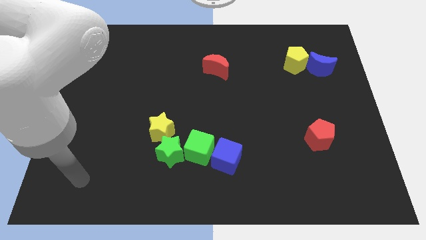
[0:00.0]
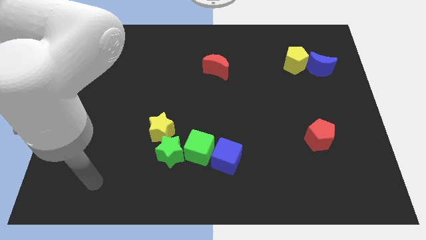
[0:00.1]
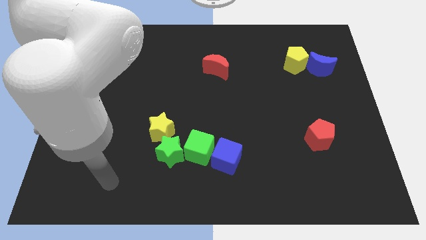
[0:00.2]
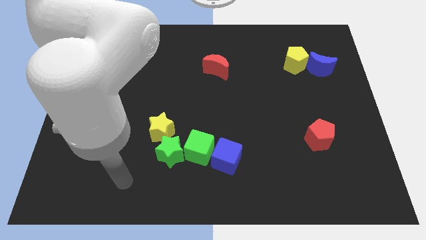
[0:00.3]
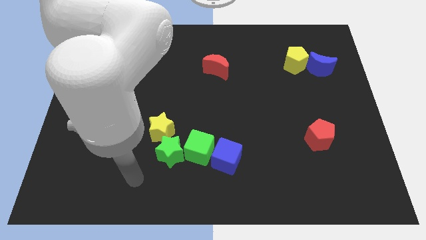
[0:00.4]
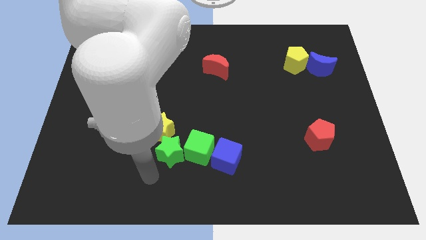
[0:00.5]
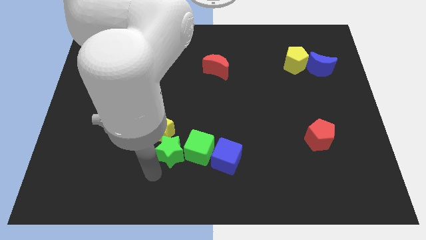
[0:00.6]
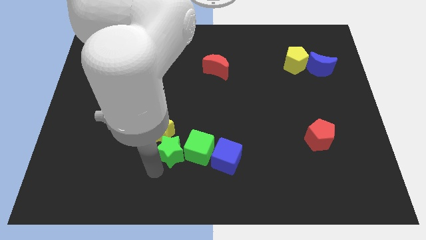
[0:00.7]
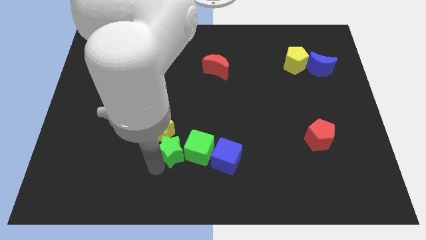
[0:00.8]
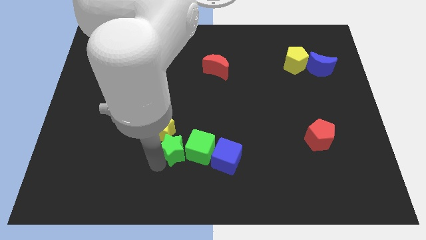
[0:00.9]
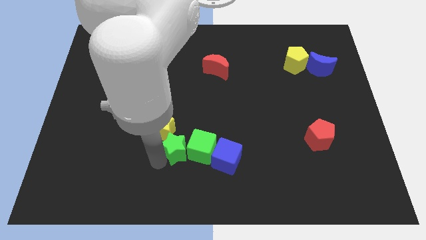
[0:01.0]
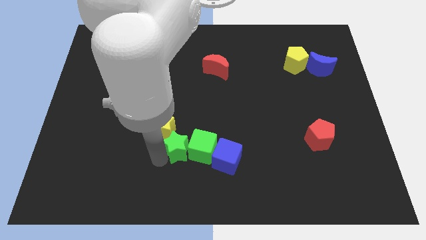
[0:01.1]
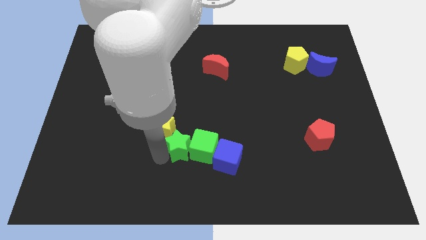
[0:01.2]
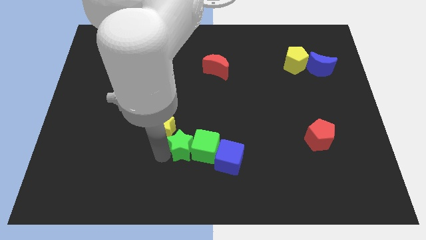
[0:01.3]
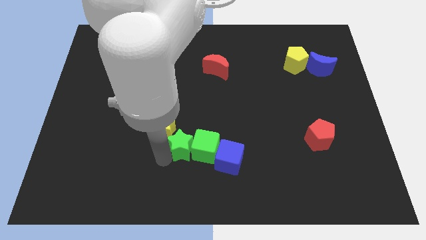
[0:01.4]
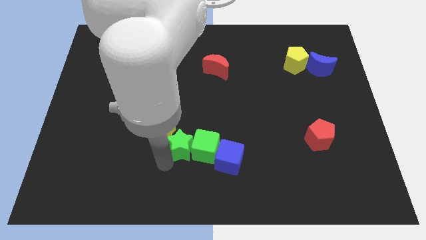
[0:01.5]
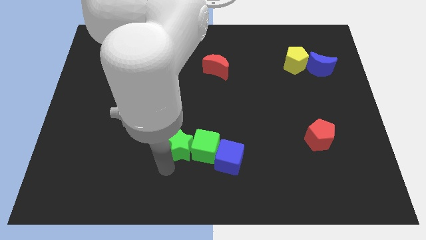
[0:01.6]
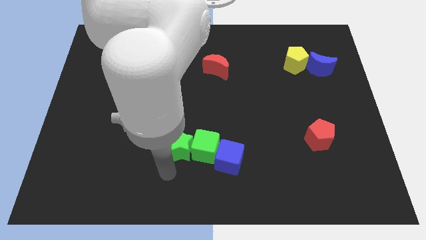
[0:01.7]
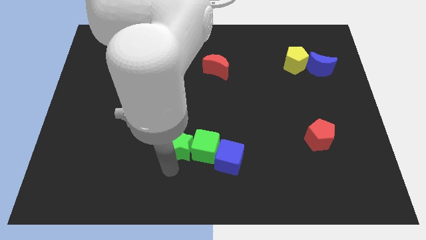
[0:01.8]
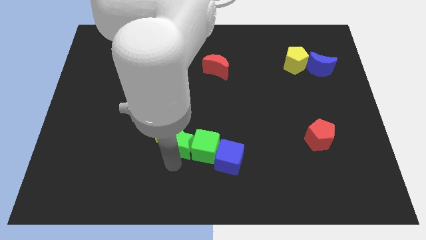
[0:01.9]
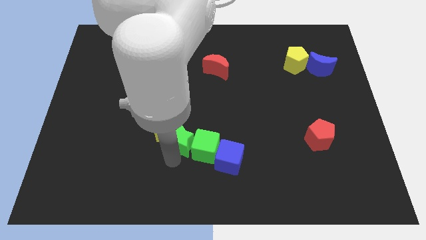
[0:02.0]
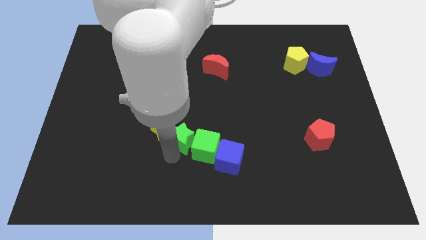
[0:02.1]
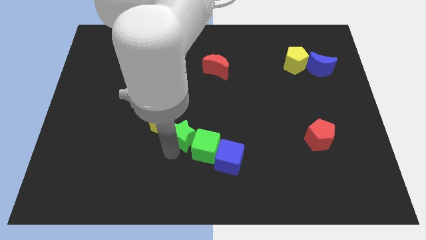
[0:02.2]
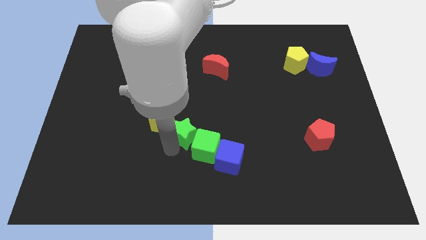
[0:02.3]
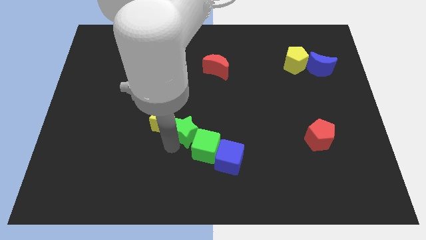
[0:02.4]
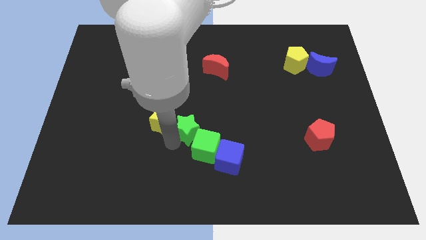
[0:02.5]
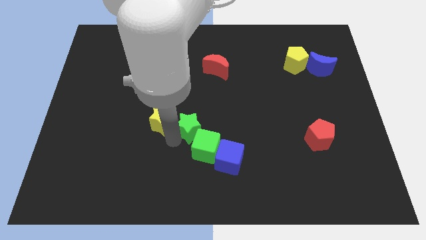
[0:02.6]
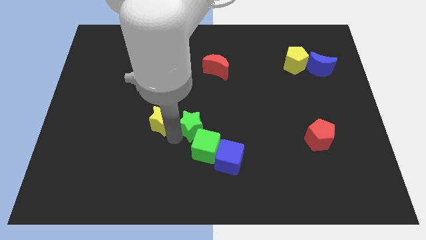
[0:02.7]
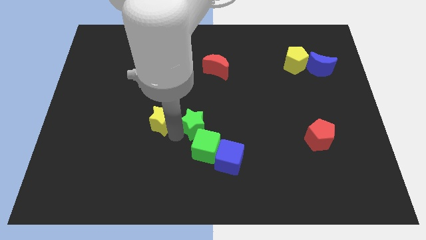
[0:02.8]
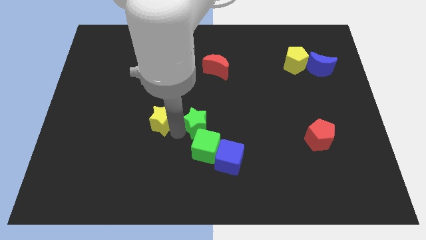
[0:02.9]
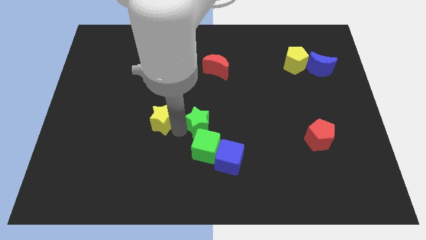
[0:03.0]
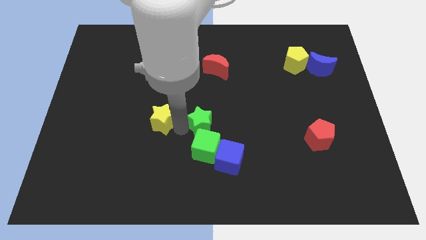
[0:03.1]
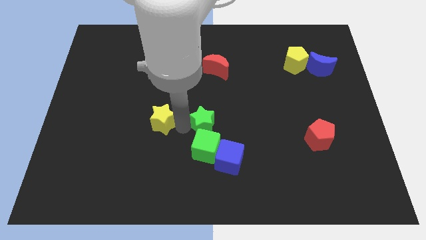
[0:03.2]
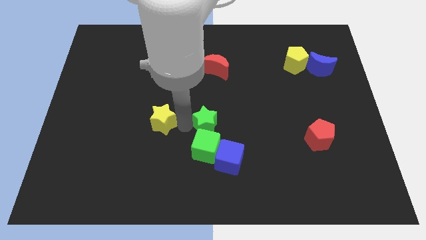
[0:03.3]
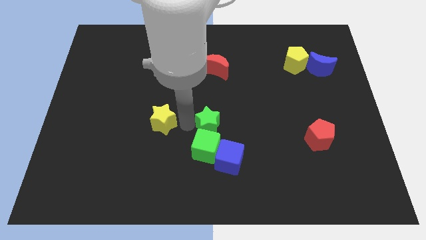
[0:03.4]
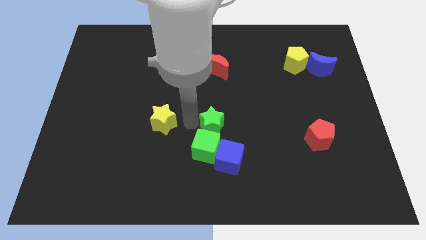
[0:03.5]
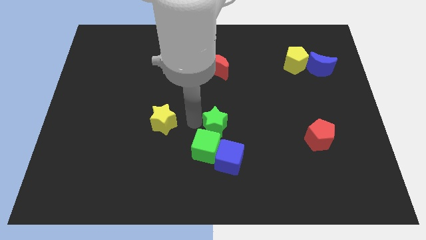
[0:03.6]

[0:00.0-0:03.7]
slide the green star a bit right

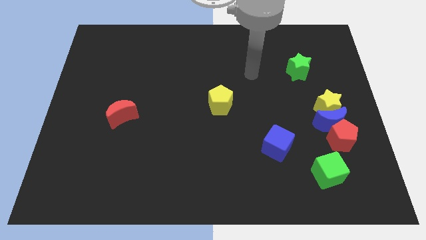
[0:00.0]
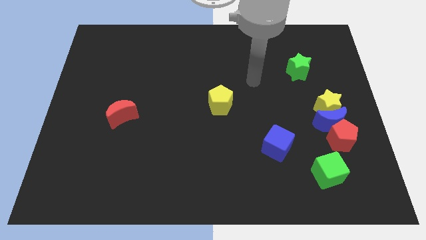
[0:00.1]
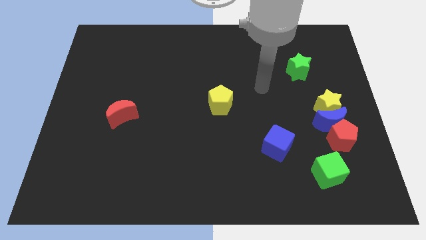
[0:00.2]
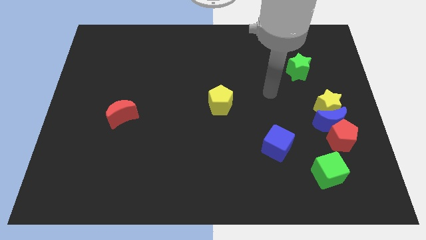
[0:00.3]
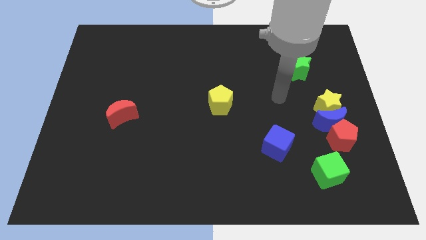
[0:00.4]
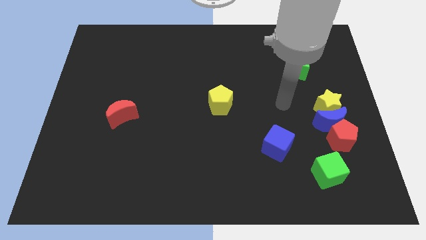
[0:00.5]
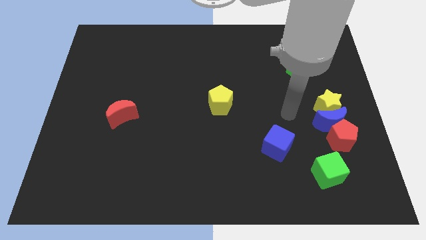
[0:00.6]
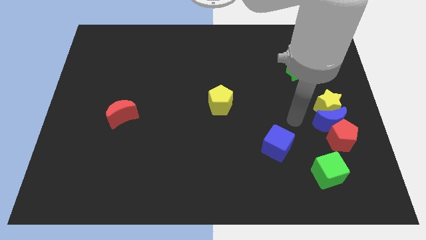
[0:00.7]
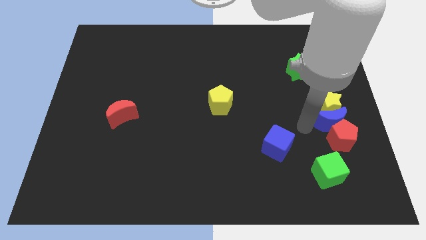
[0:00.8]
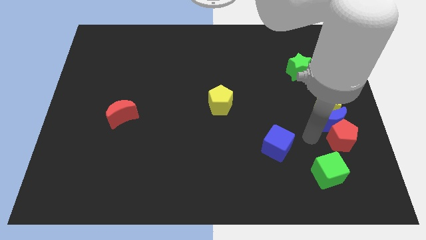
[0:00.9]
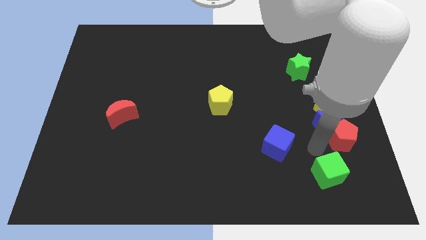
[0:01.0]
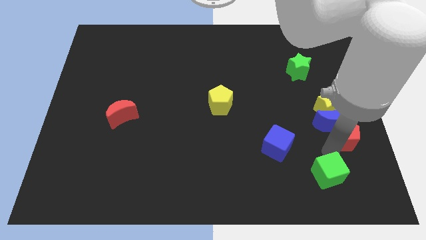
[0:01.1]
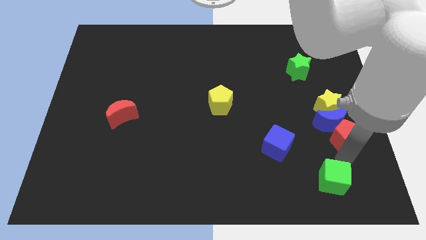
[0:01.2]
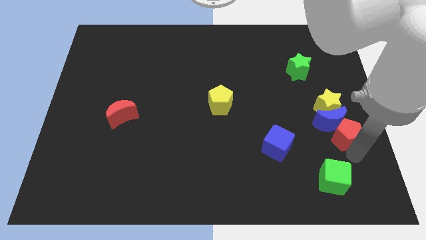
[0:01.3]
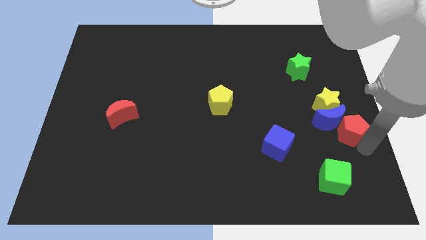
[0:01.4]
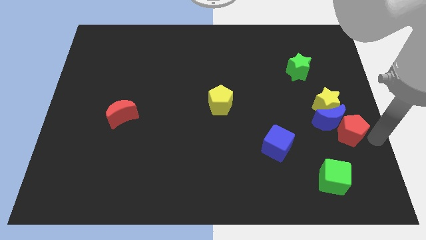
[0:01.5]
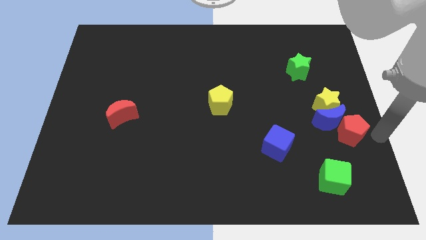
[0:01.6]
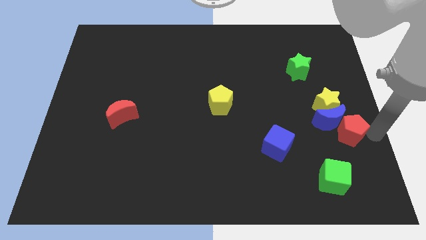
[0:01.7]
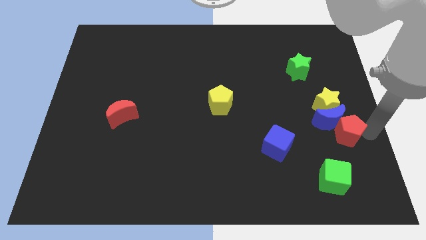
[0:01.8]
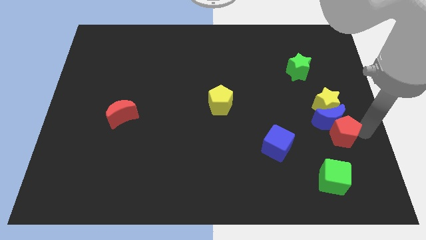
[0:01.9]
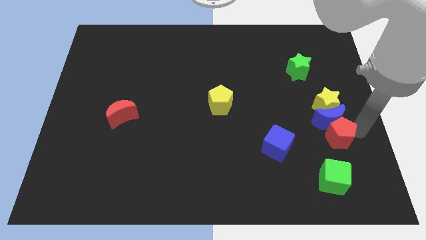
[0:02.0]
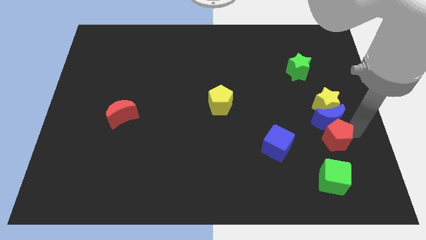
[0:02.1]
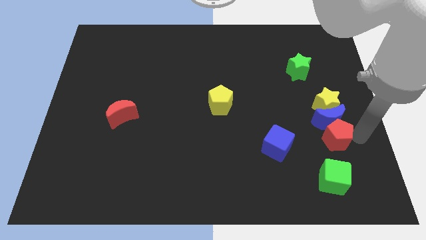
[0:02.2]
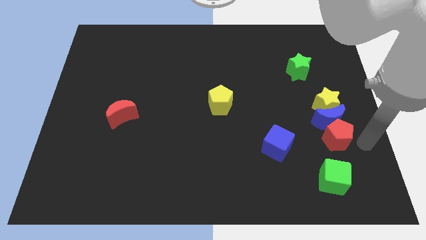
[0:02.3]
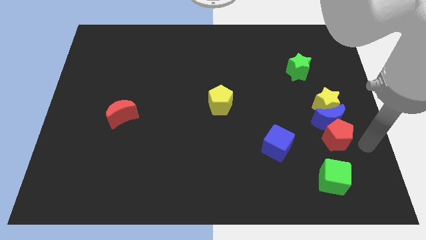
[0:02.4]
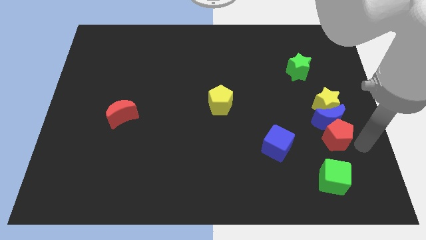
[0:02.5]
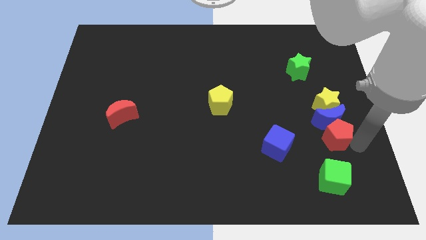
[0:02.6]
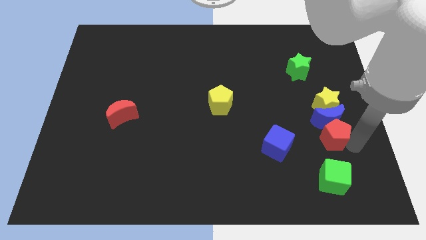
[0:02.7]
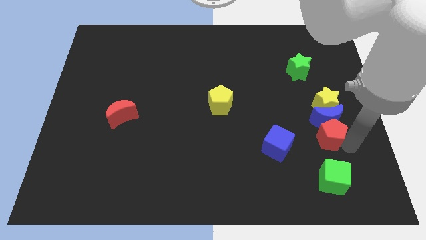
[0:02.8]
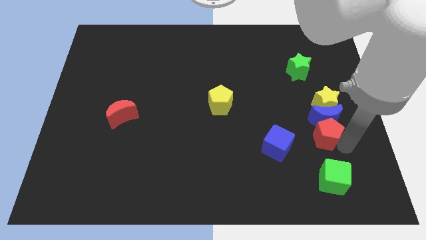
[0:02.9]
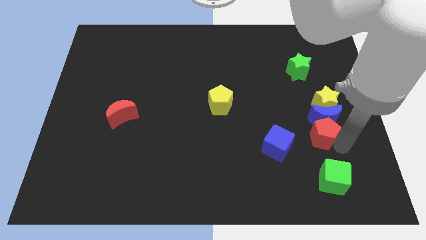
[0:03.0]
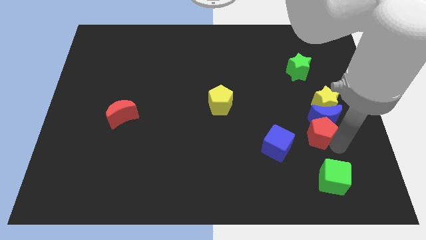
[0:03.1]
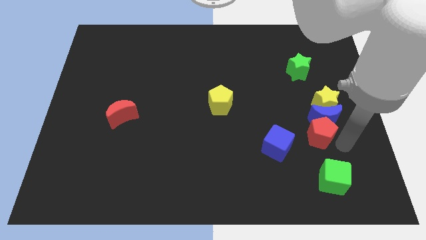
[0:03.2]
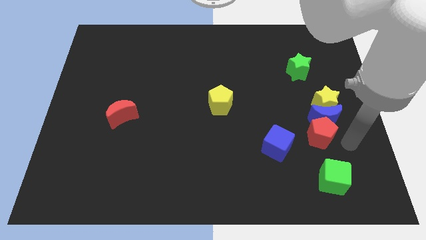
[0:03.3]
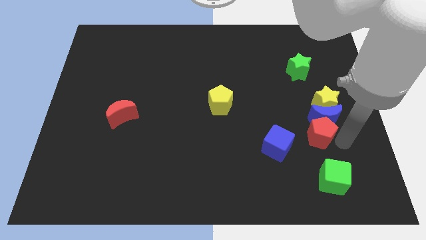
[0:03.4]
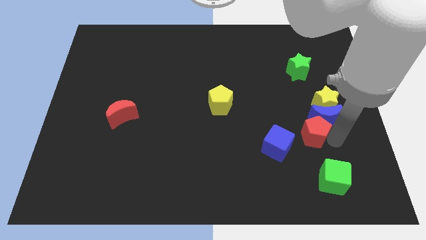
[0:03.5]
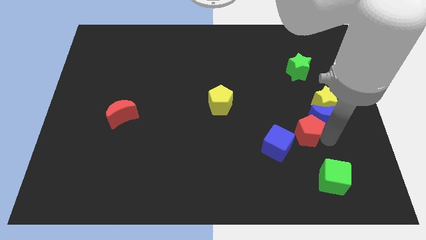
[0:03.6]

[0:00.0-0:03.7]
slide the red pentagon left a bit

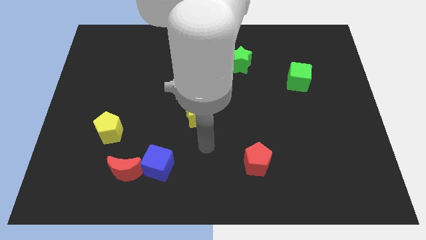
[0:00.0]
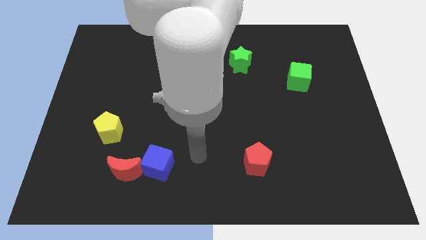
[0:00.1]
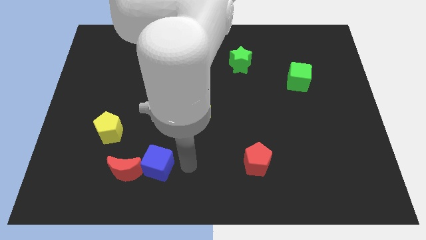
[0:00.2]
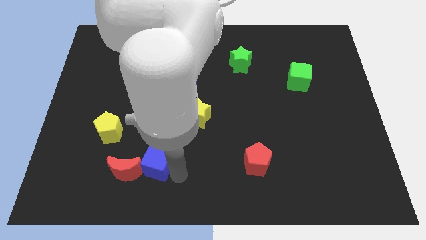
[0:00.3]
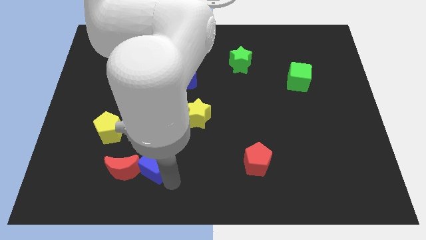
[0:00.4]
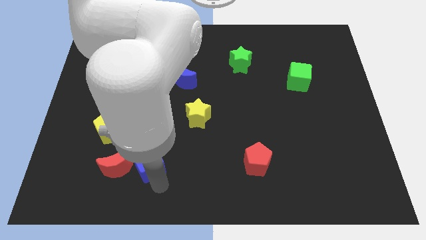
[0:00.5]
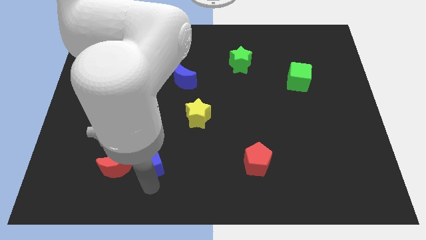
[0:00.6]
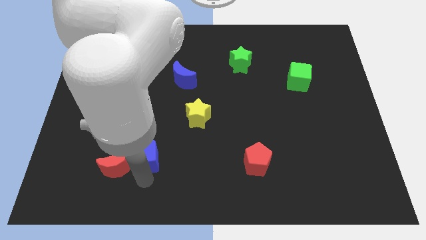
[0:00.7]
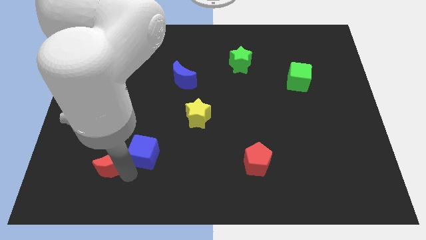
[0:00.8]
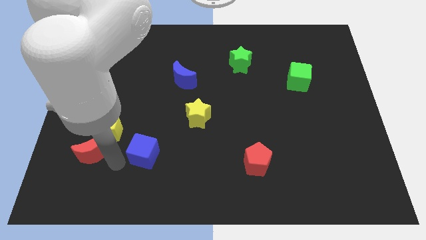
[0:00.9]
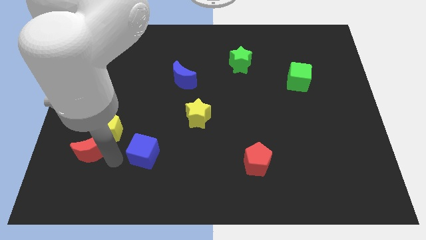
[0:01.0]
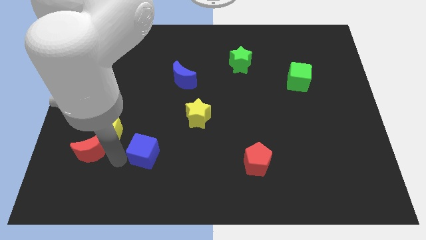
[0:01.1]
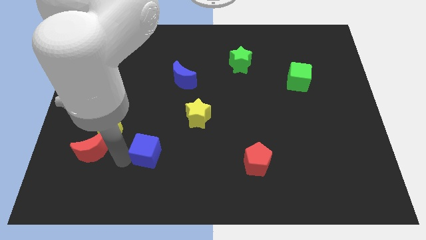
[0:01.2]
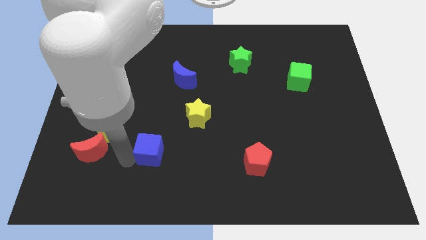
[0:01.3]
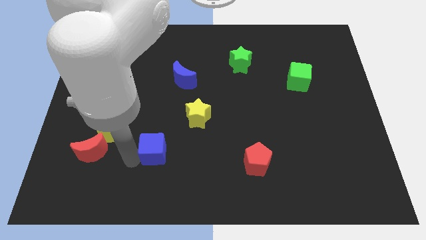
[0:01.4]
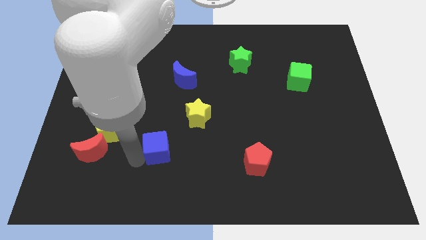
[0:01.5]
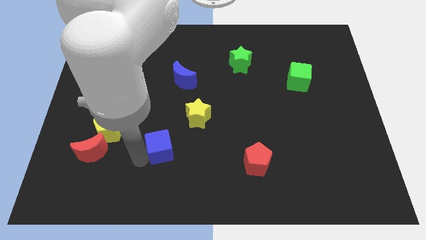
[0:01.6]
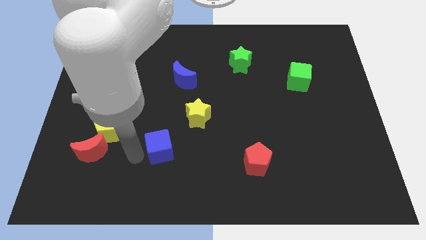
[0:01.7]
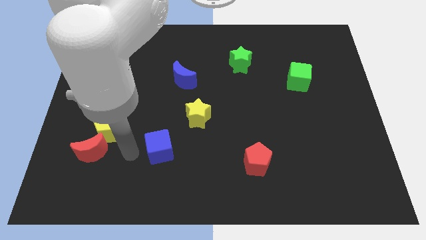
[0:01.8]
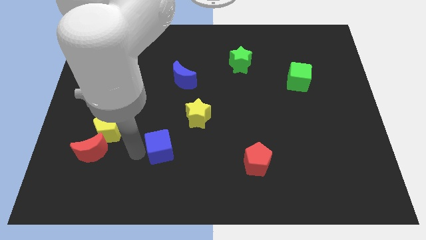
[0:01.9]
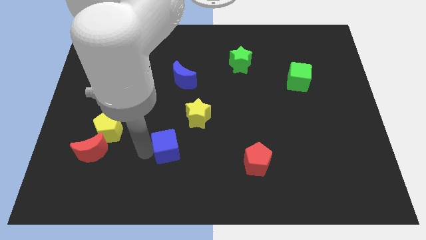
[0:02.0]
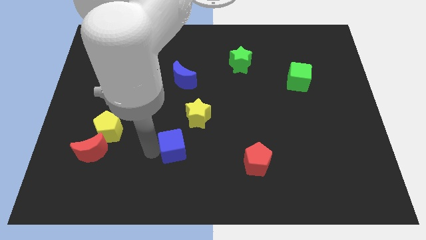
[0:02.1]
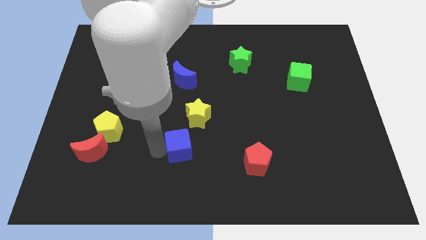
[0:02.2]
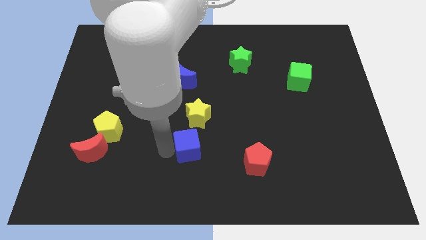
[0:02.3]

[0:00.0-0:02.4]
slightly push the blue cube up and right diagonally
